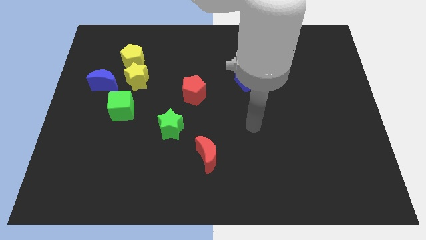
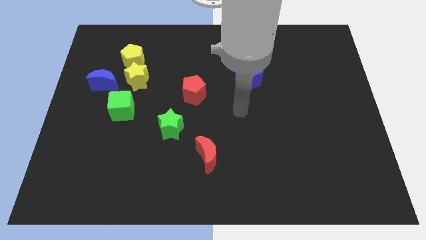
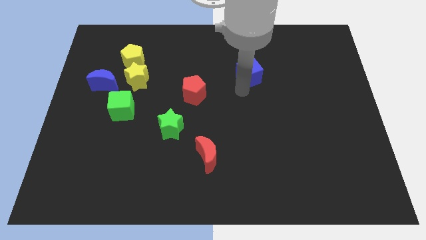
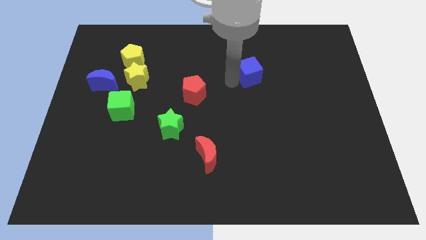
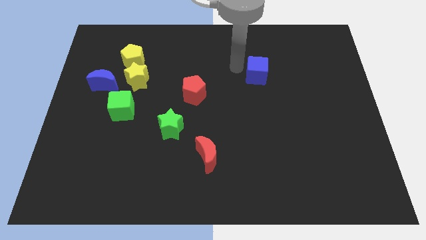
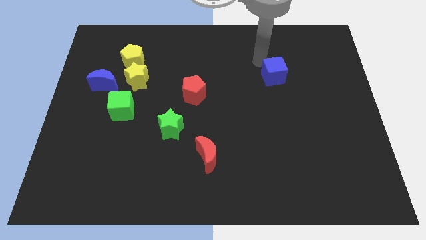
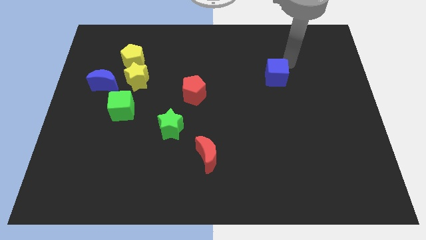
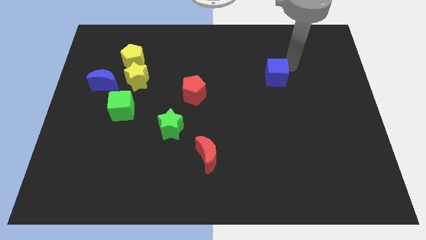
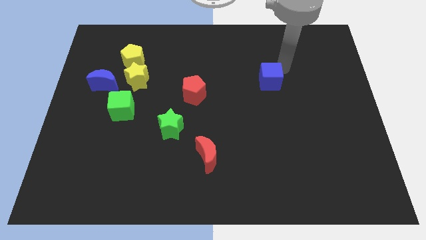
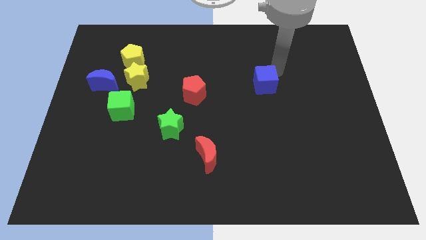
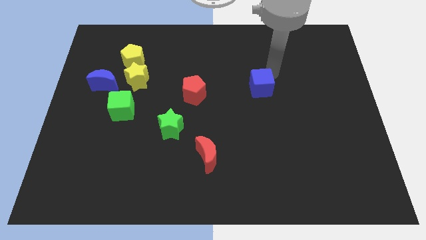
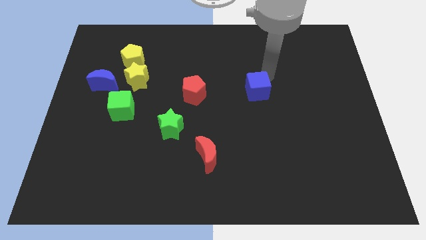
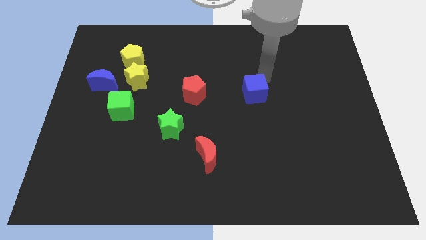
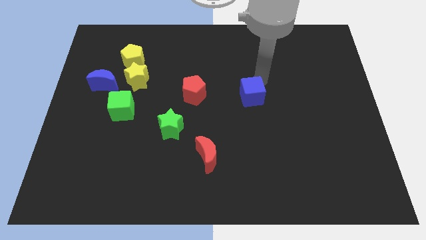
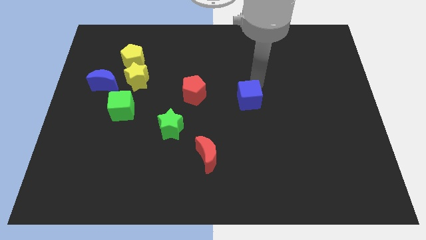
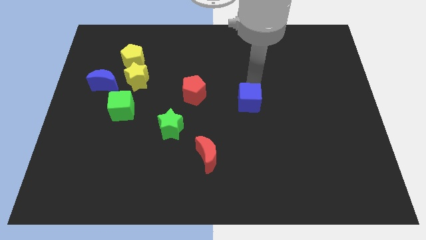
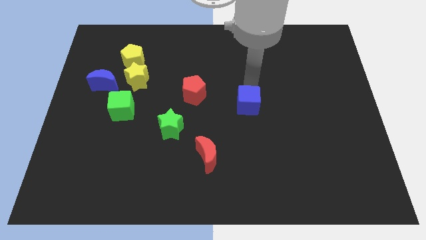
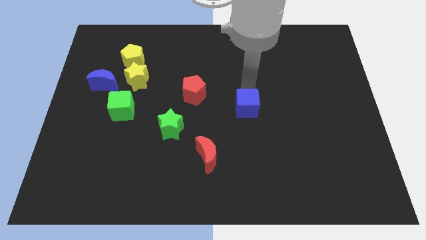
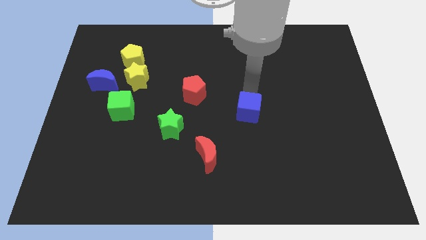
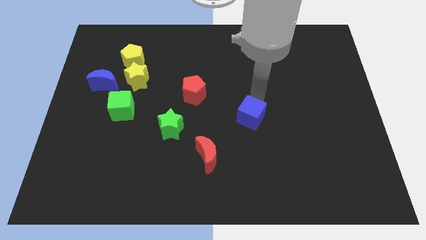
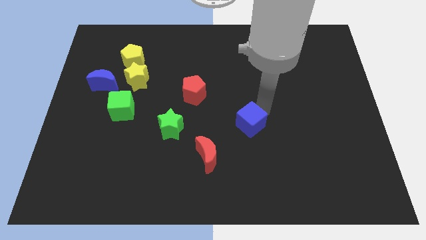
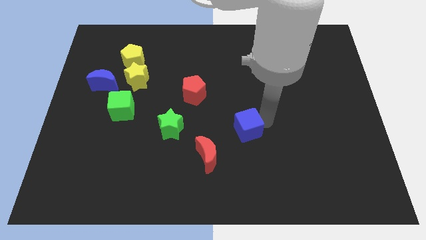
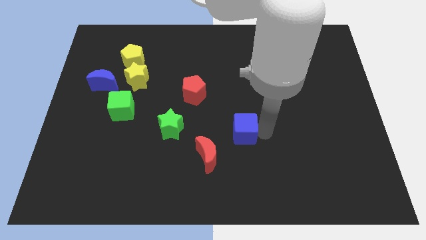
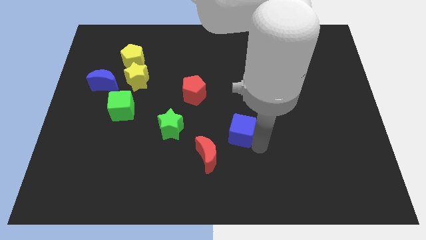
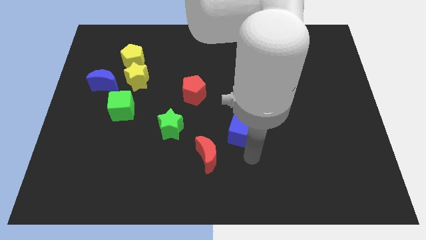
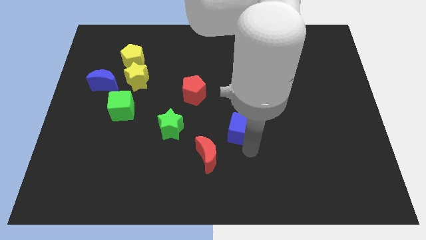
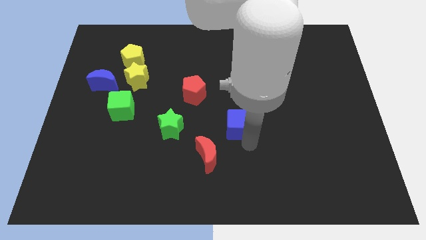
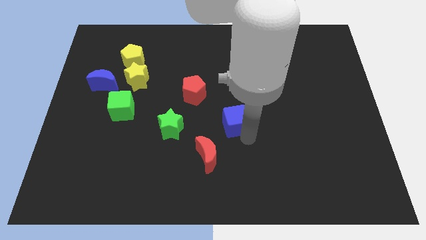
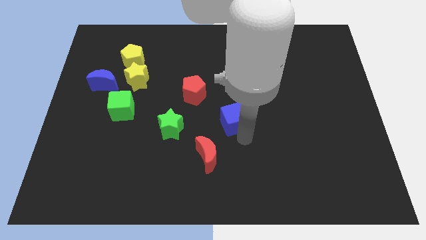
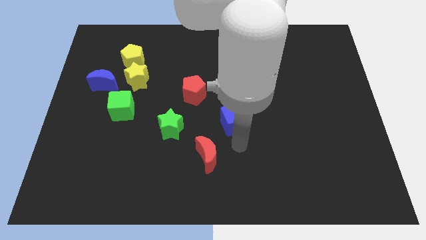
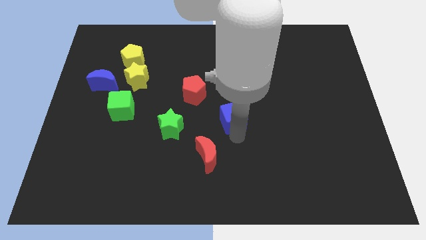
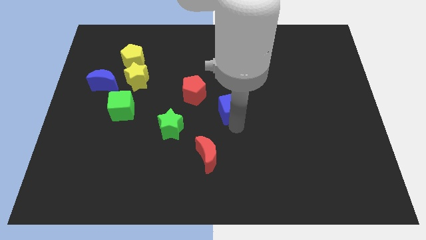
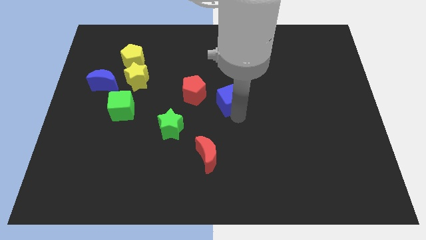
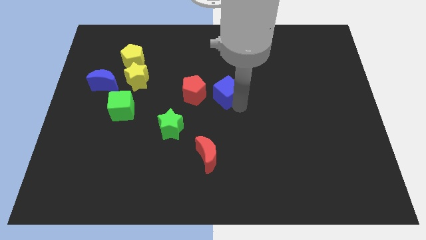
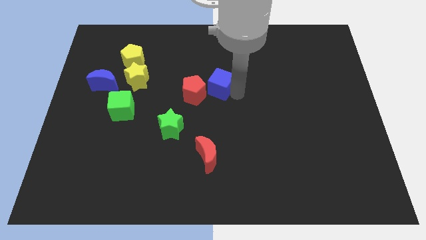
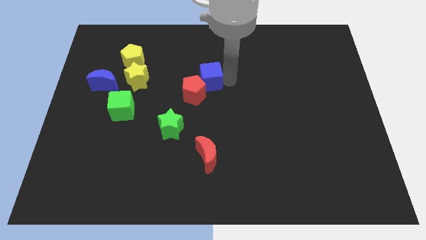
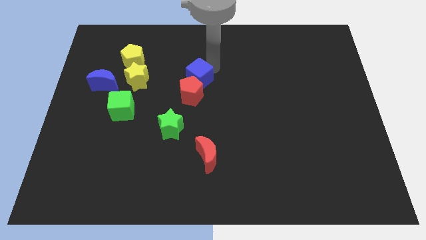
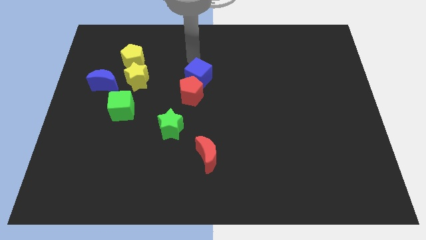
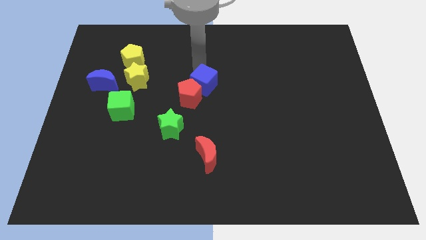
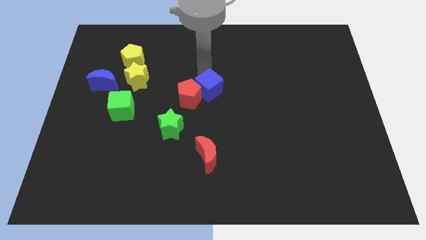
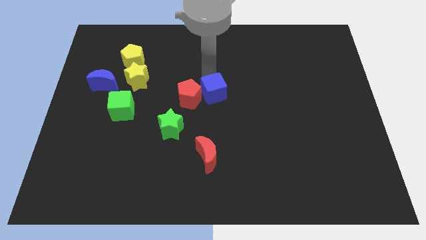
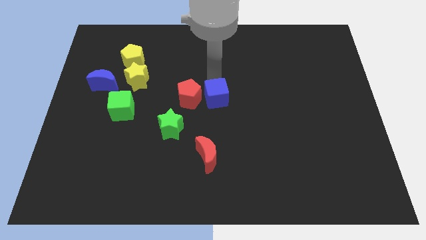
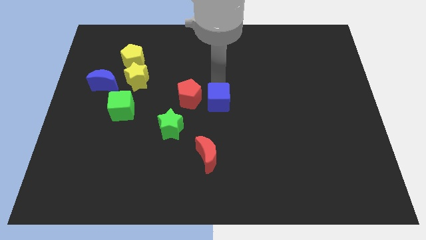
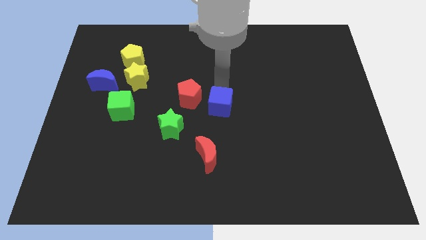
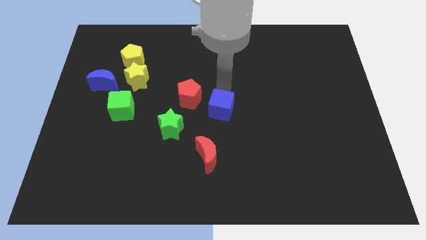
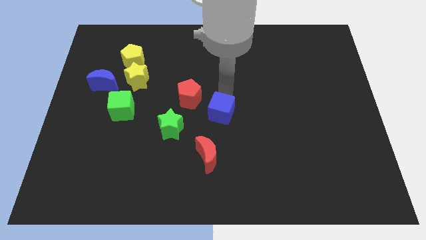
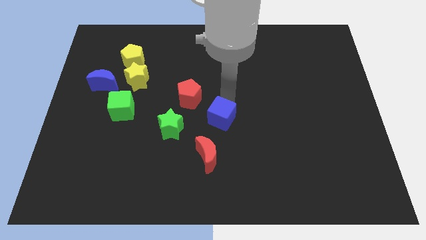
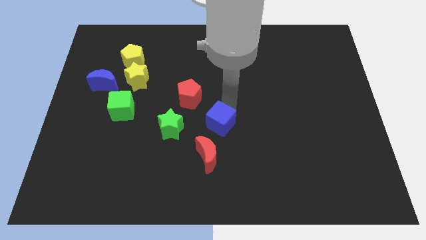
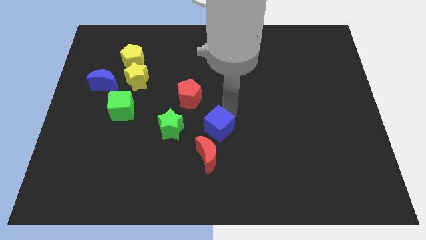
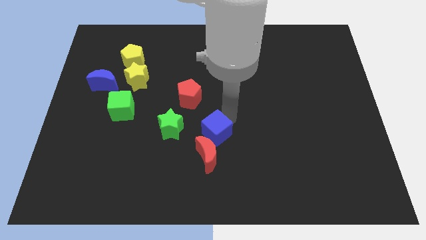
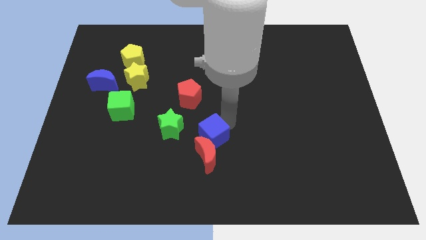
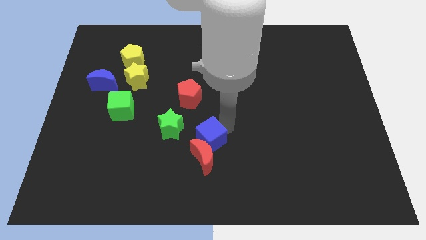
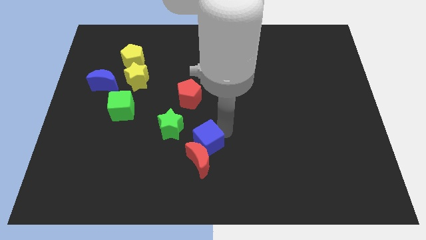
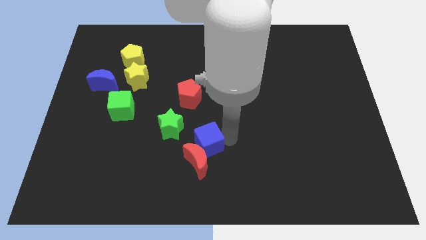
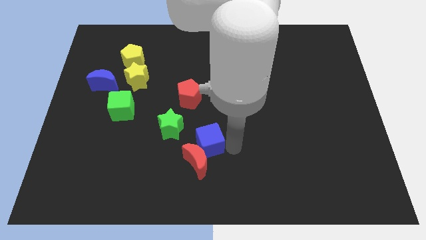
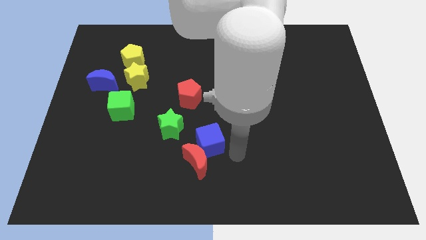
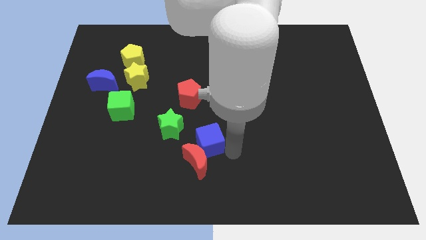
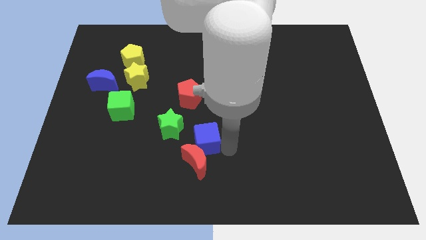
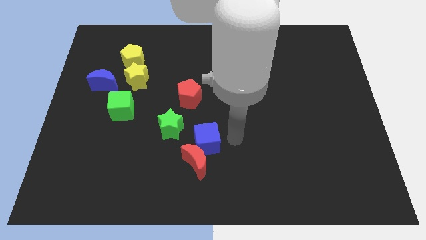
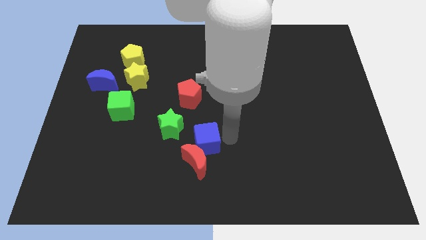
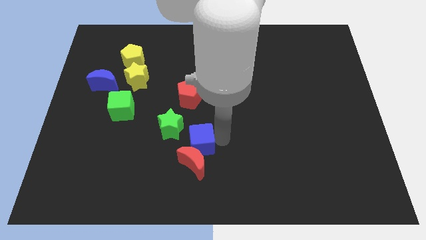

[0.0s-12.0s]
slide the blue cube diagonally downwards and left

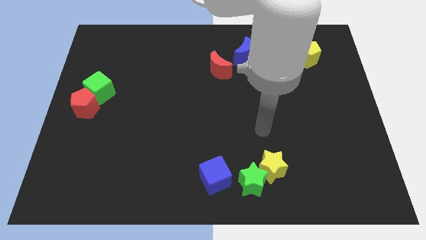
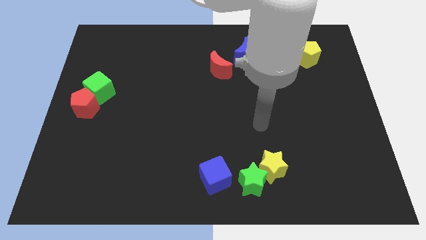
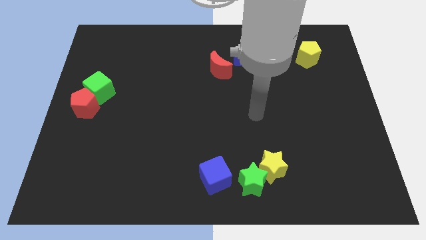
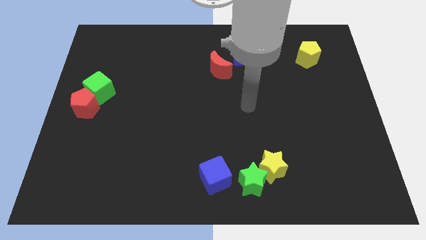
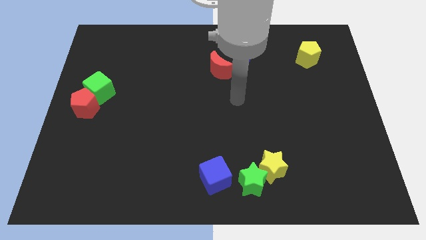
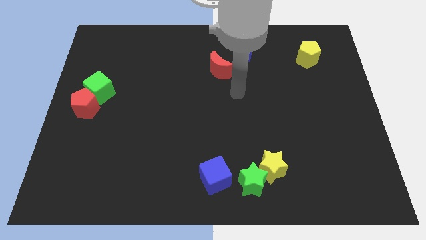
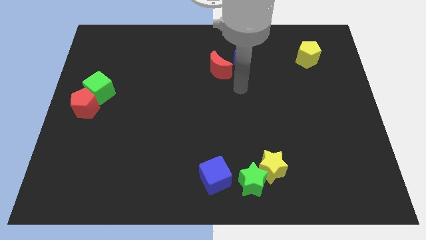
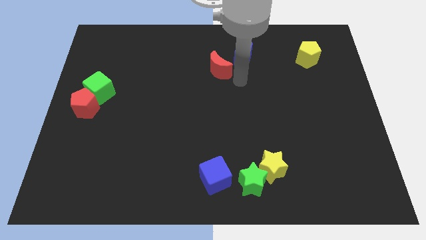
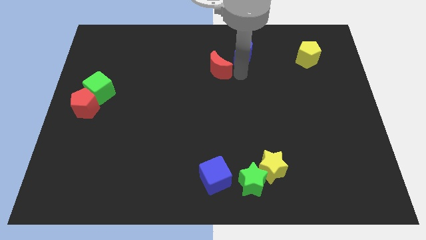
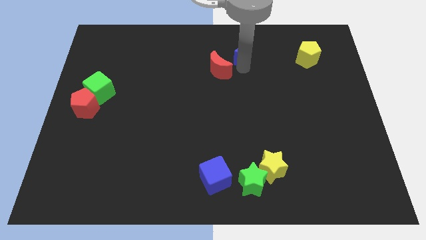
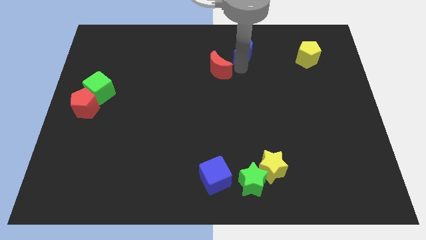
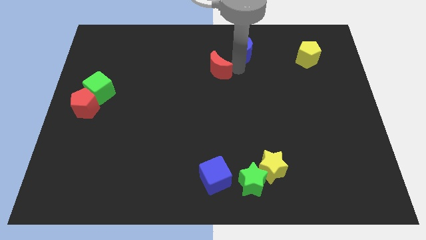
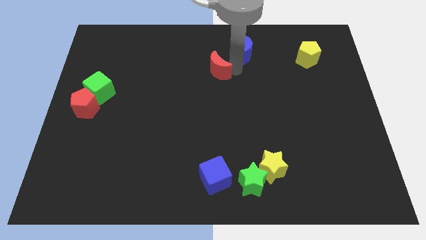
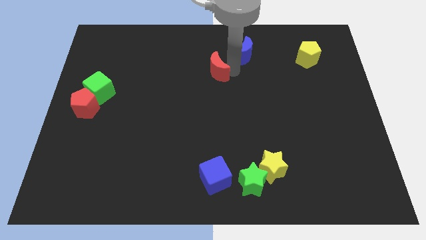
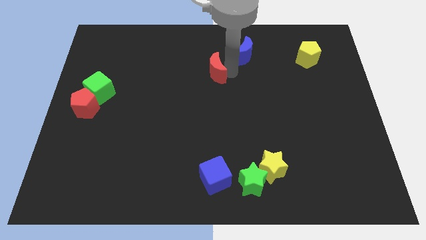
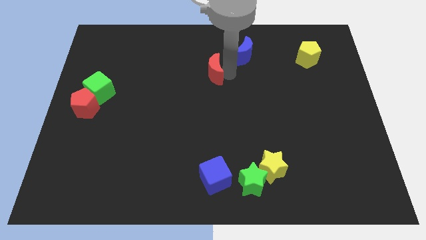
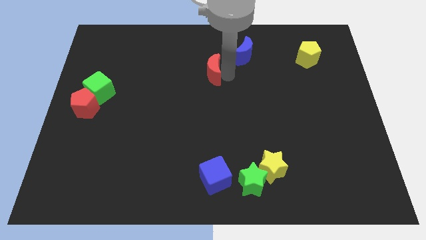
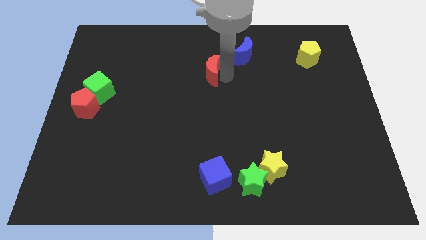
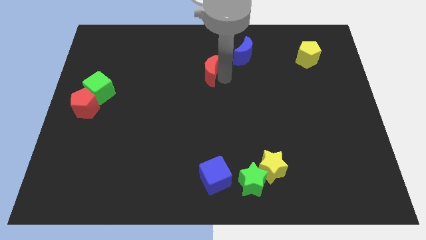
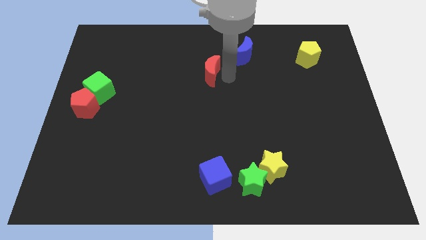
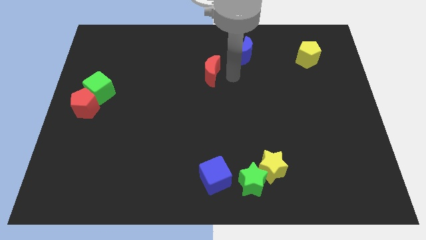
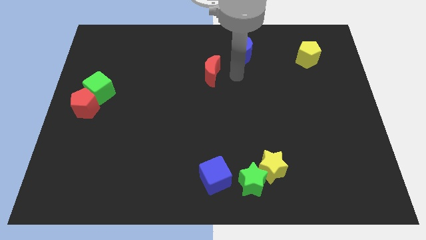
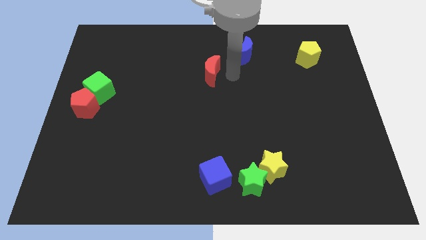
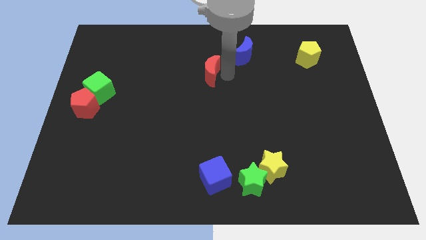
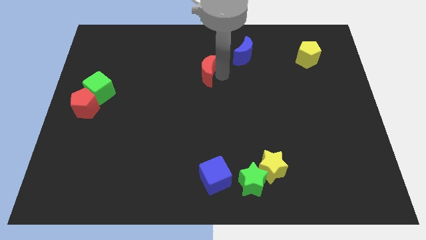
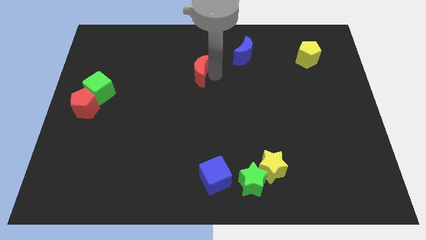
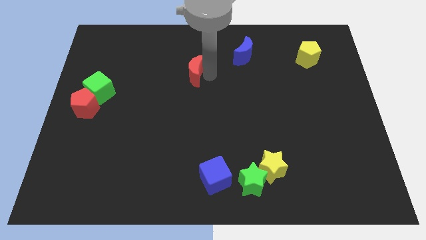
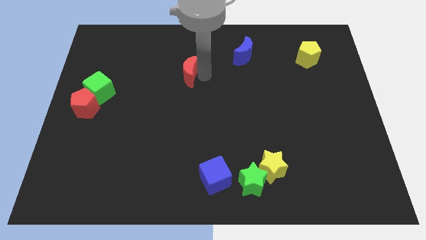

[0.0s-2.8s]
slide the red moon slightly left
